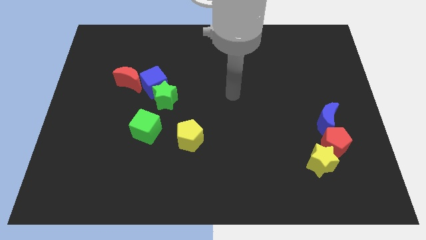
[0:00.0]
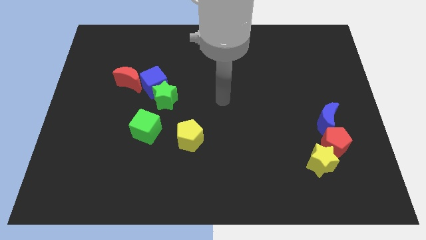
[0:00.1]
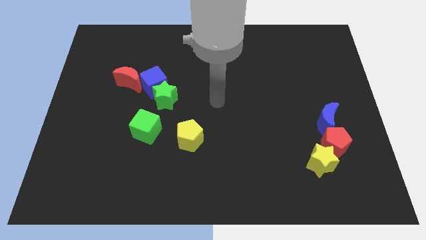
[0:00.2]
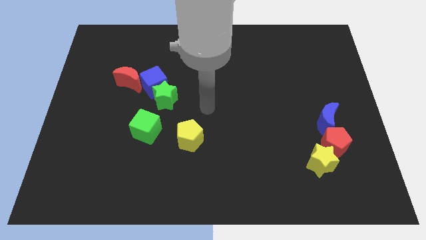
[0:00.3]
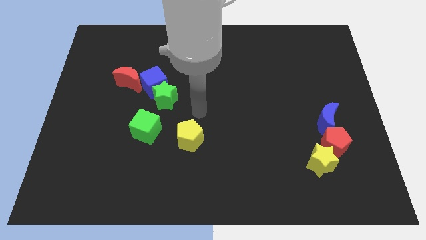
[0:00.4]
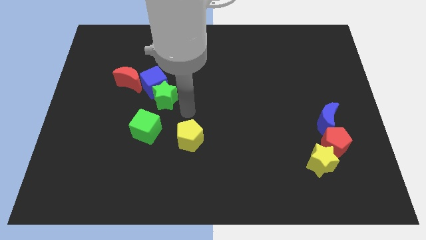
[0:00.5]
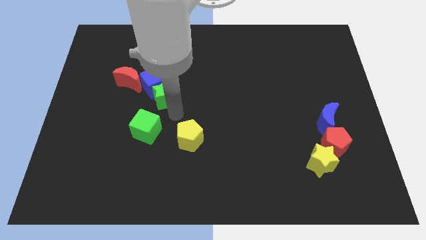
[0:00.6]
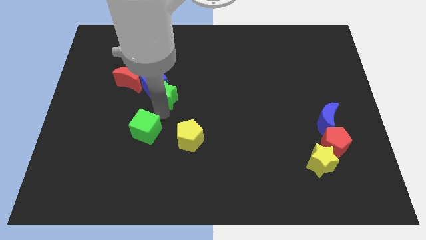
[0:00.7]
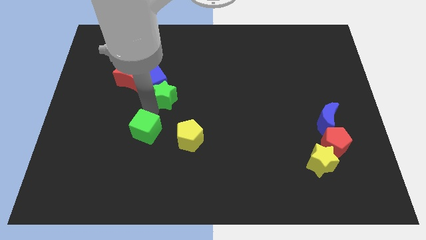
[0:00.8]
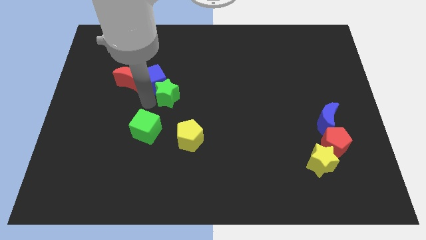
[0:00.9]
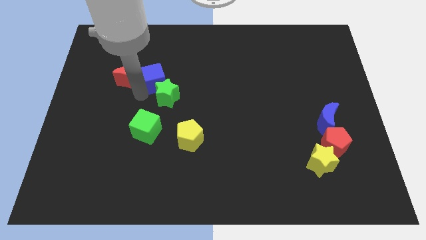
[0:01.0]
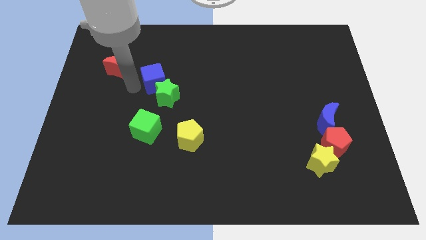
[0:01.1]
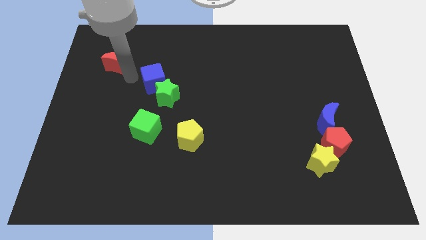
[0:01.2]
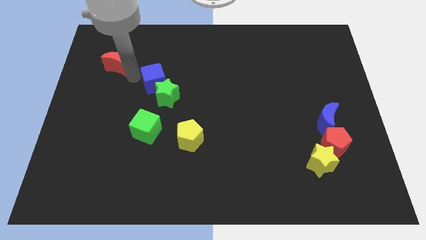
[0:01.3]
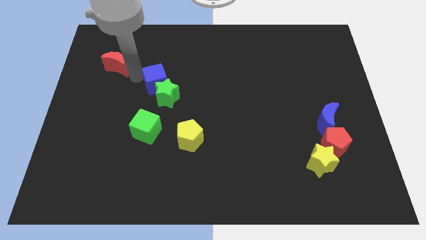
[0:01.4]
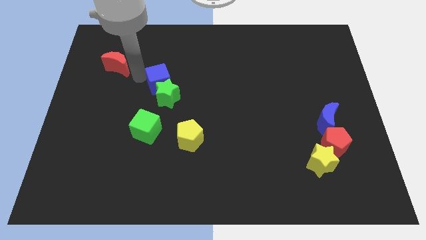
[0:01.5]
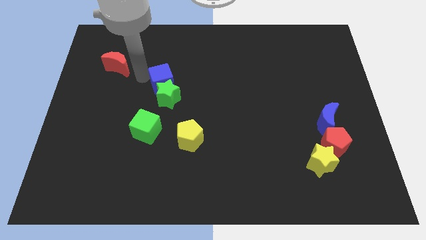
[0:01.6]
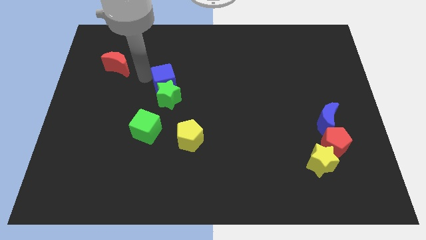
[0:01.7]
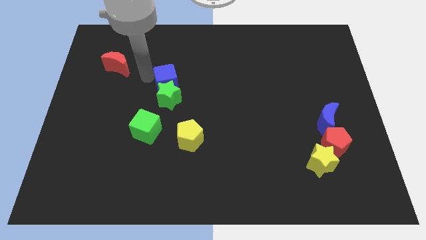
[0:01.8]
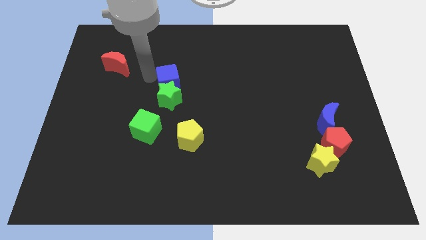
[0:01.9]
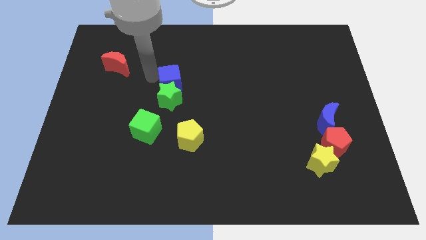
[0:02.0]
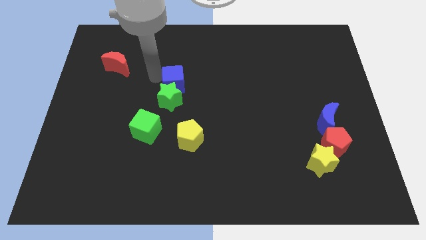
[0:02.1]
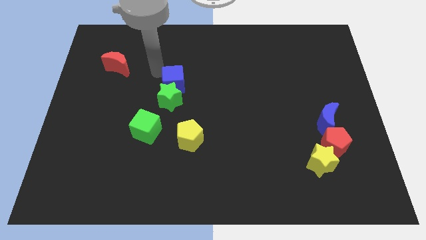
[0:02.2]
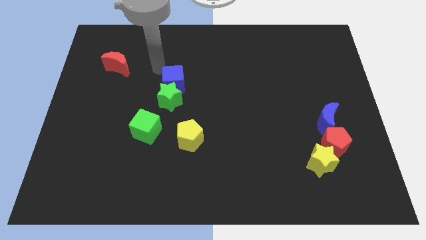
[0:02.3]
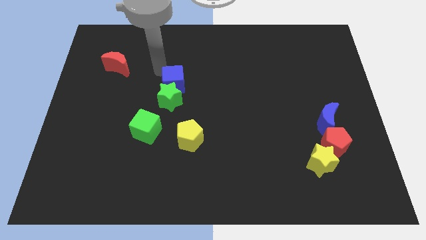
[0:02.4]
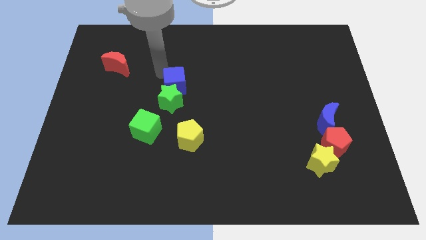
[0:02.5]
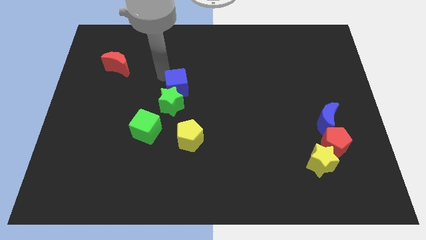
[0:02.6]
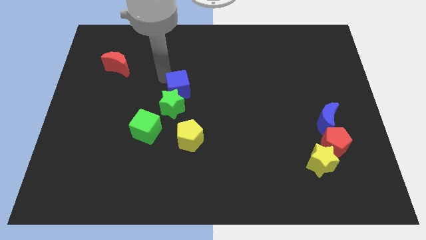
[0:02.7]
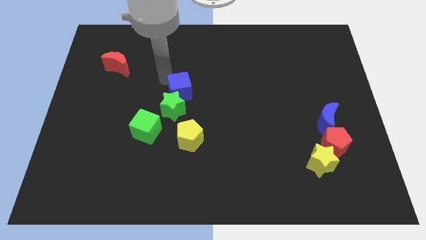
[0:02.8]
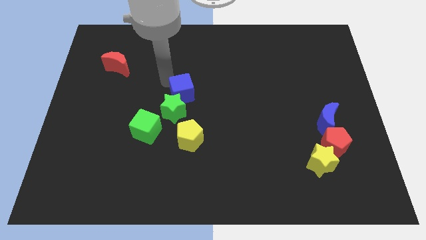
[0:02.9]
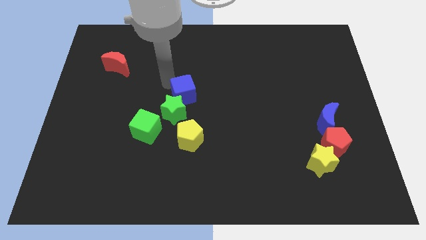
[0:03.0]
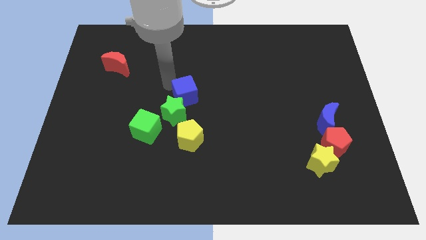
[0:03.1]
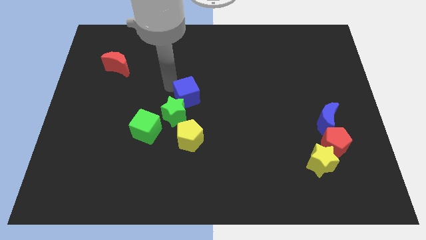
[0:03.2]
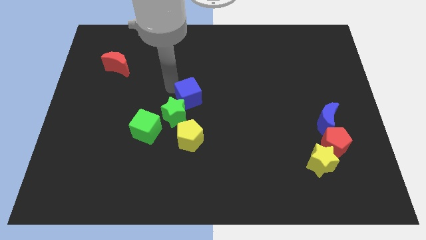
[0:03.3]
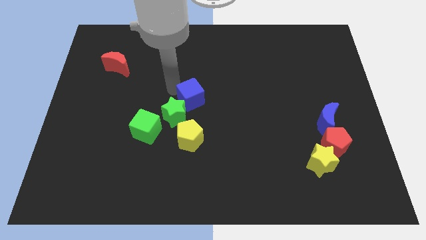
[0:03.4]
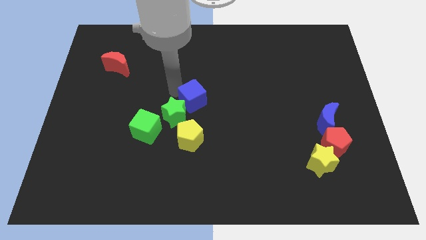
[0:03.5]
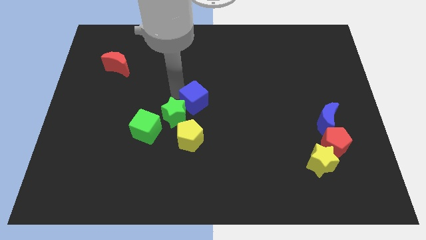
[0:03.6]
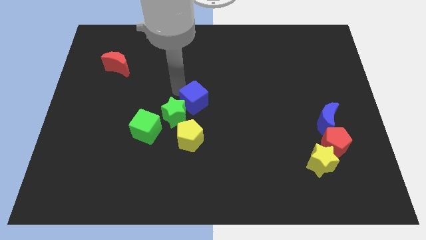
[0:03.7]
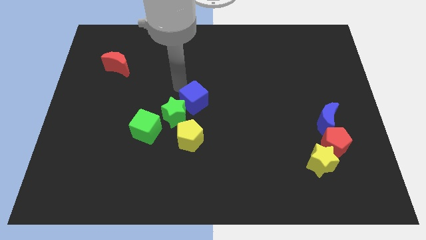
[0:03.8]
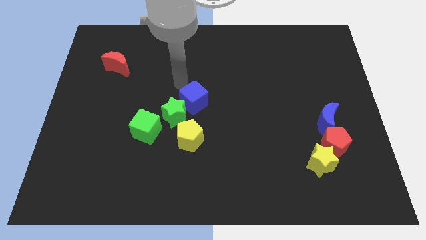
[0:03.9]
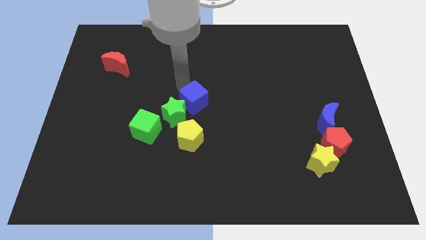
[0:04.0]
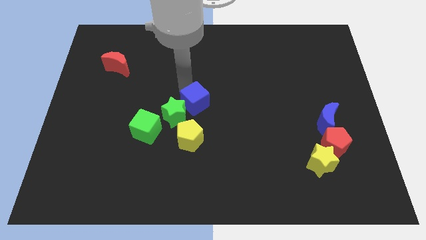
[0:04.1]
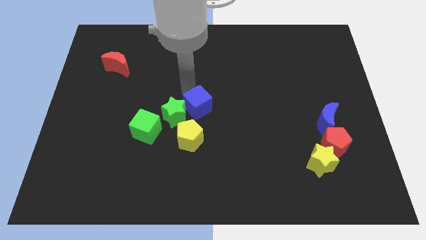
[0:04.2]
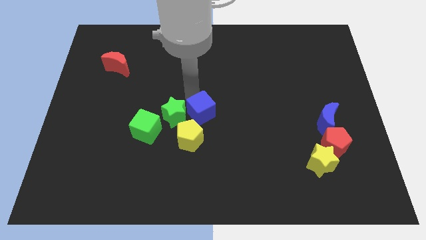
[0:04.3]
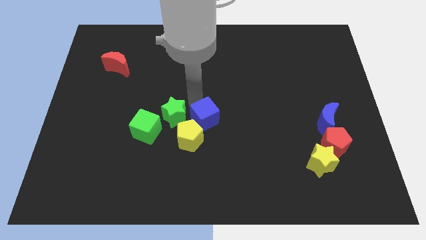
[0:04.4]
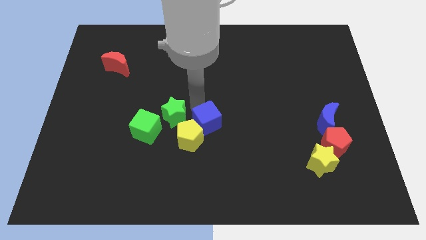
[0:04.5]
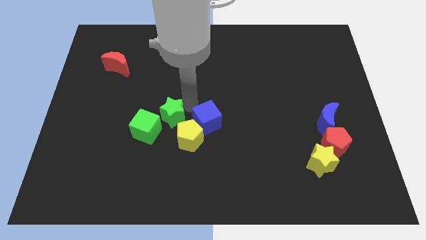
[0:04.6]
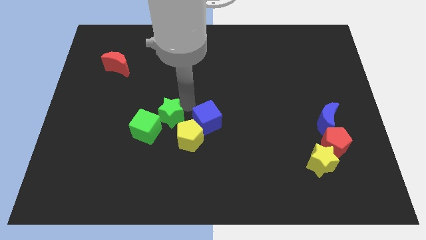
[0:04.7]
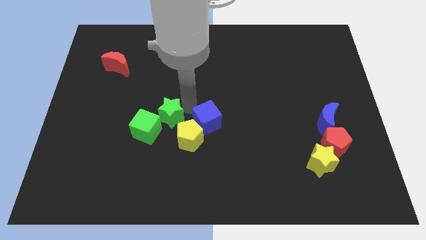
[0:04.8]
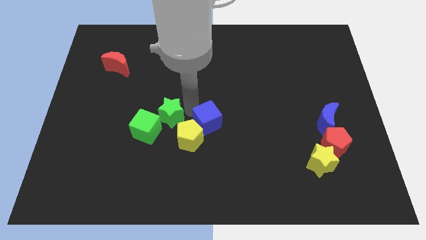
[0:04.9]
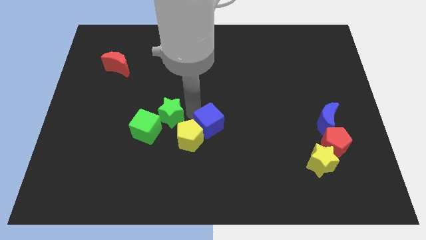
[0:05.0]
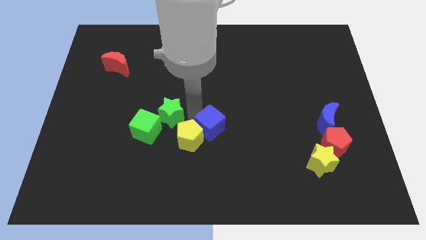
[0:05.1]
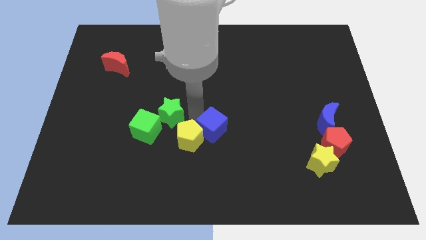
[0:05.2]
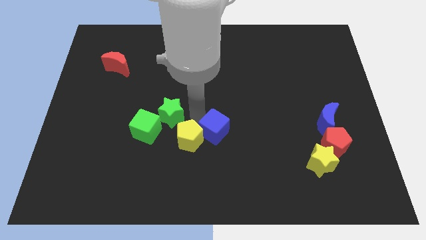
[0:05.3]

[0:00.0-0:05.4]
slide the blue cube down and right diagonally

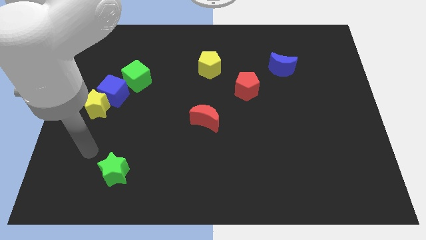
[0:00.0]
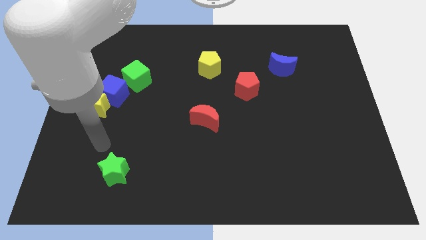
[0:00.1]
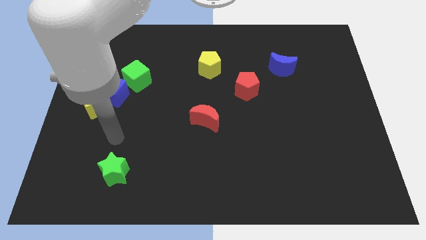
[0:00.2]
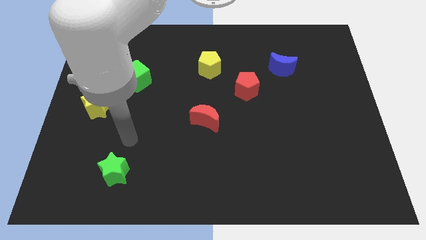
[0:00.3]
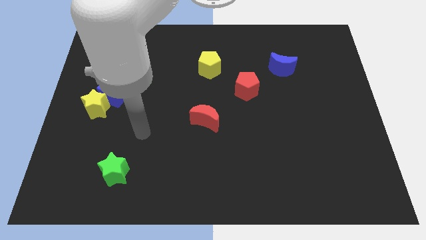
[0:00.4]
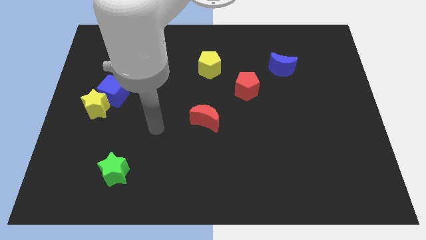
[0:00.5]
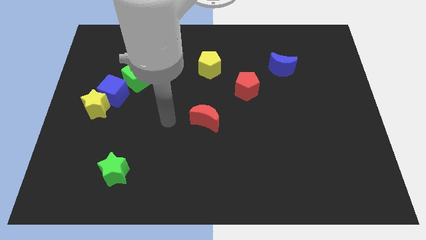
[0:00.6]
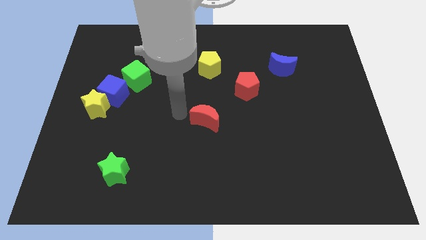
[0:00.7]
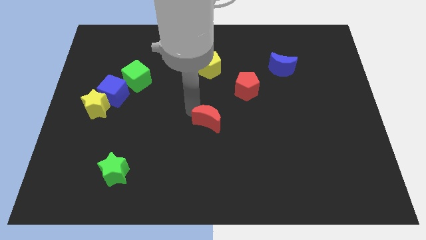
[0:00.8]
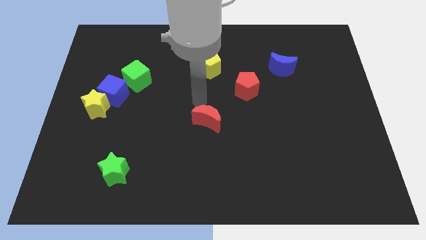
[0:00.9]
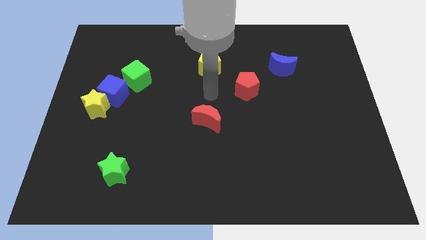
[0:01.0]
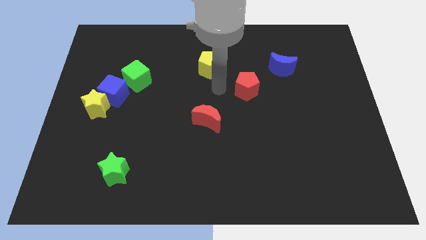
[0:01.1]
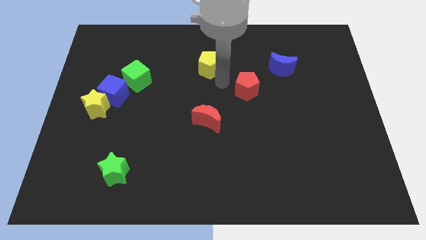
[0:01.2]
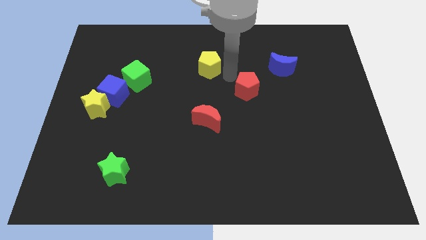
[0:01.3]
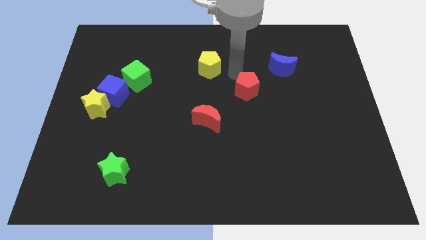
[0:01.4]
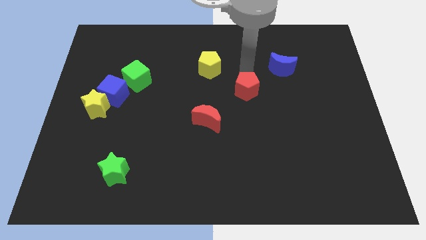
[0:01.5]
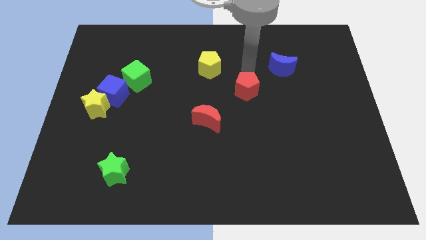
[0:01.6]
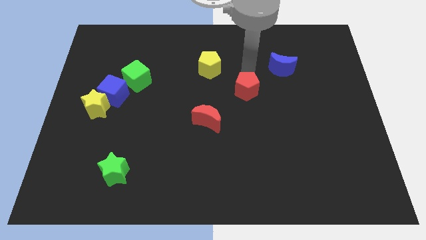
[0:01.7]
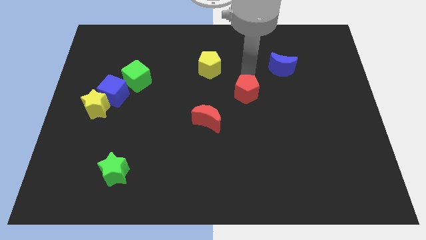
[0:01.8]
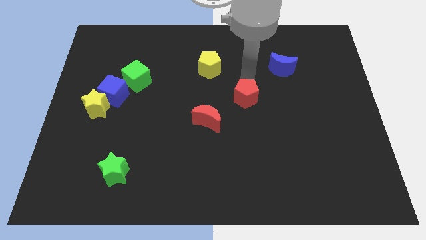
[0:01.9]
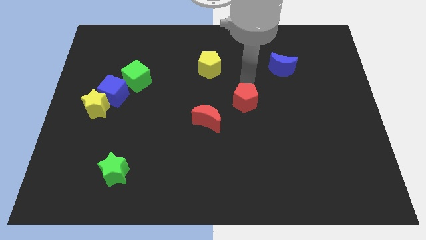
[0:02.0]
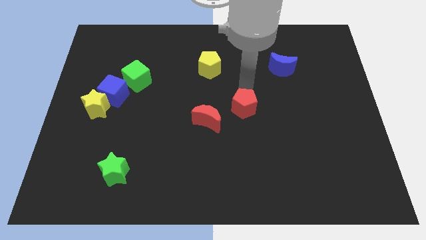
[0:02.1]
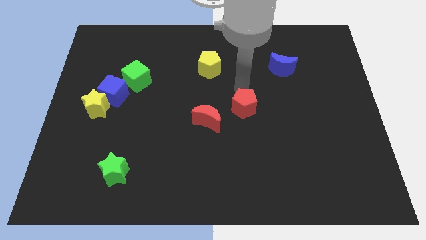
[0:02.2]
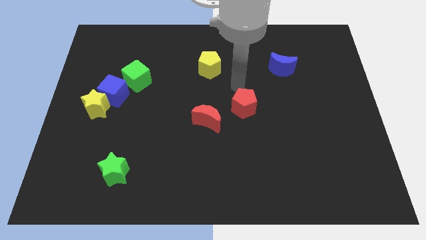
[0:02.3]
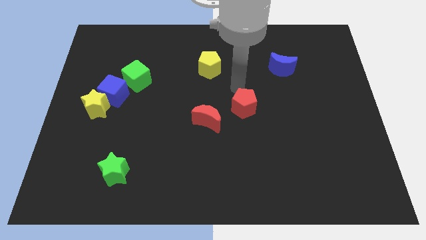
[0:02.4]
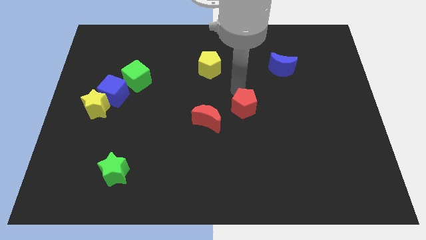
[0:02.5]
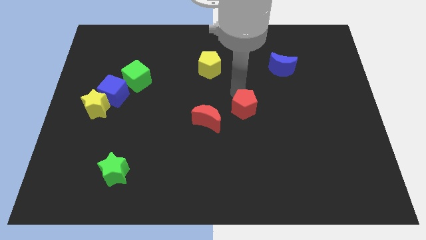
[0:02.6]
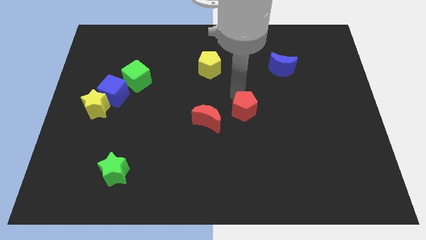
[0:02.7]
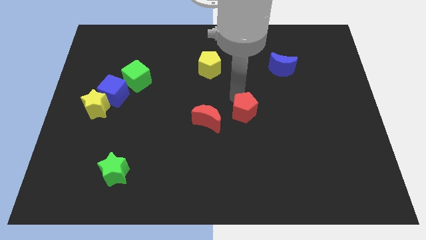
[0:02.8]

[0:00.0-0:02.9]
move the red pentagon a bit downwards
